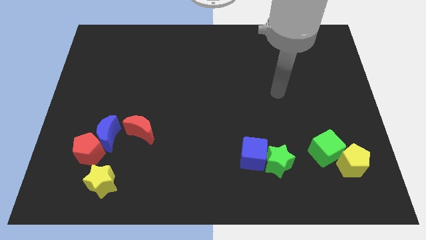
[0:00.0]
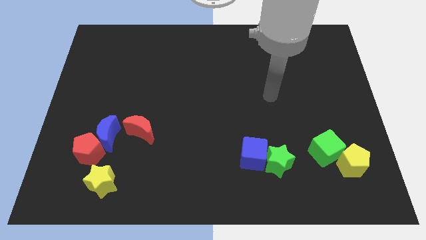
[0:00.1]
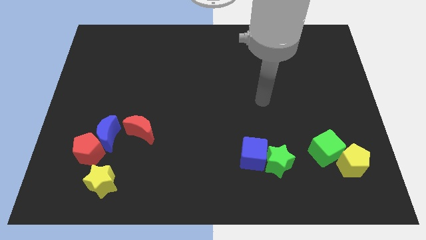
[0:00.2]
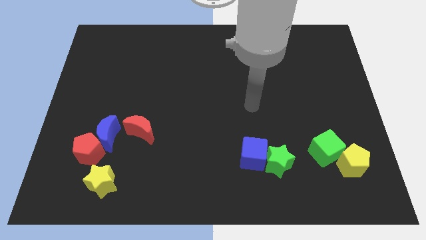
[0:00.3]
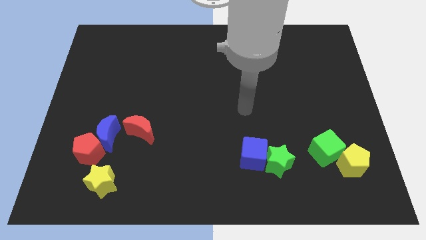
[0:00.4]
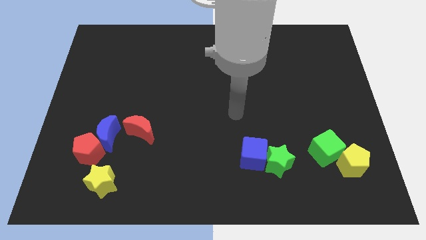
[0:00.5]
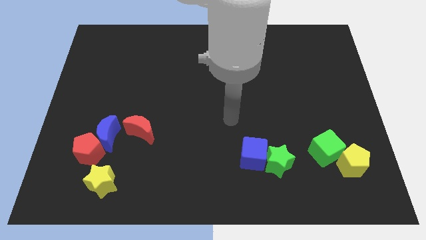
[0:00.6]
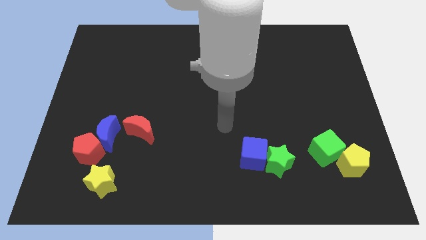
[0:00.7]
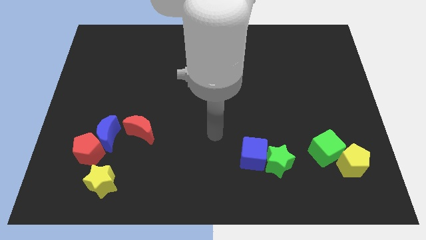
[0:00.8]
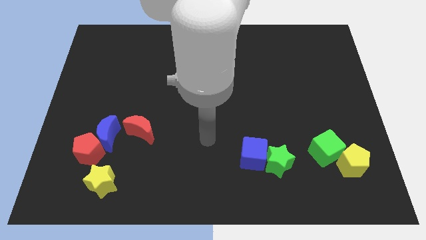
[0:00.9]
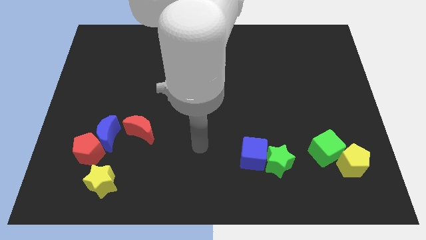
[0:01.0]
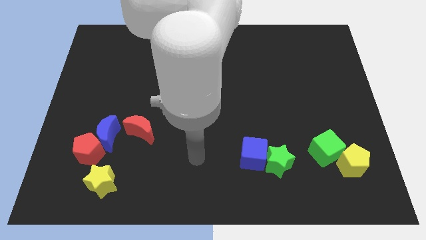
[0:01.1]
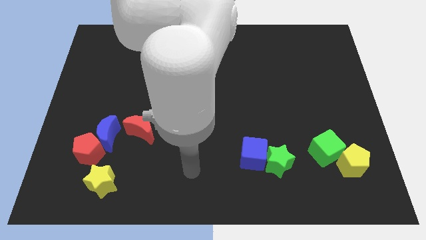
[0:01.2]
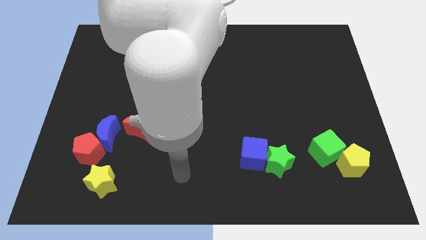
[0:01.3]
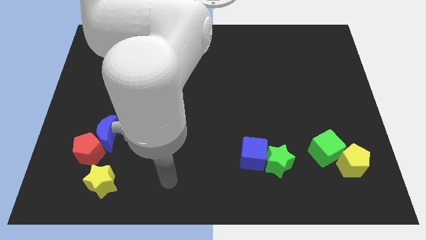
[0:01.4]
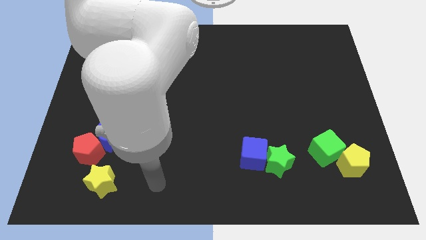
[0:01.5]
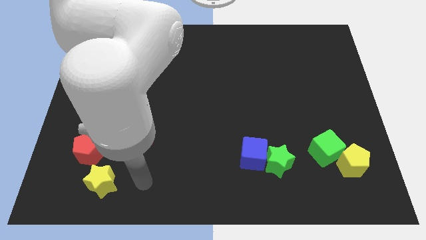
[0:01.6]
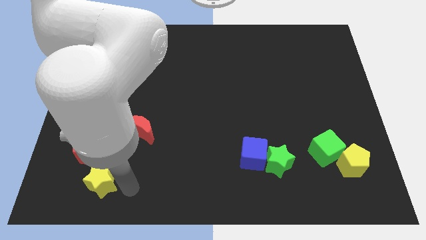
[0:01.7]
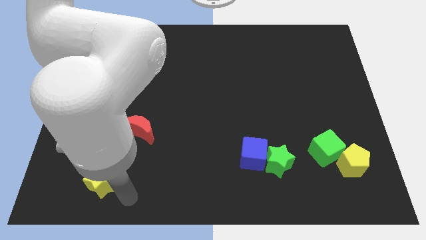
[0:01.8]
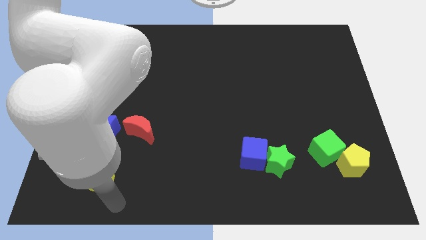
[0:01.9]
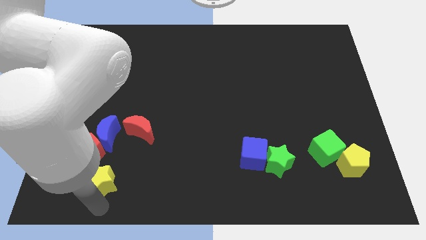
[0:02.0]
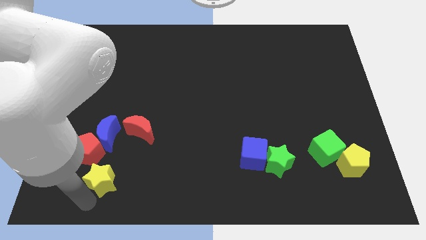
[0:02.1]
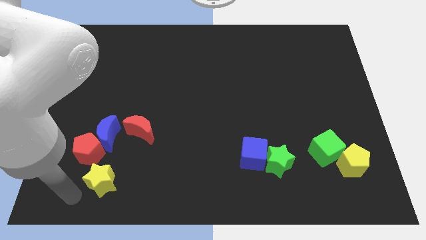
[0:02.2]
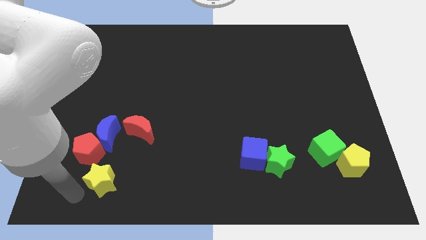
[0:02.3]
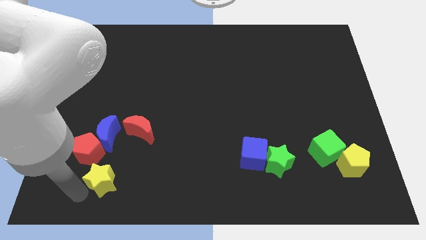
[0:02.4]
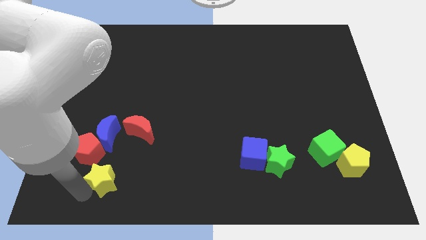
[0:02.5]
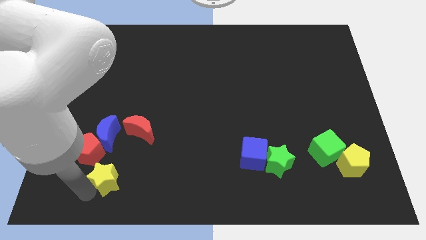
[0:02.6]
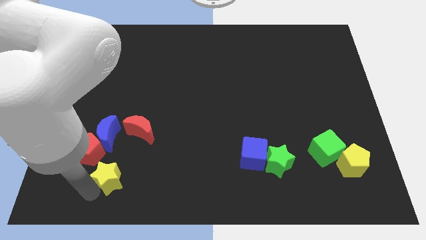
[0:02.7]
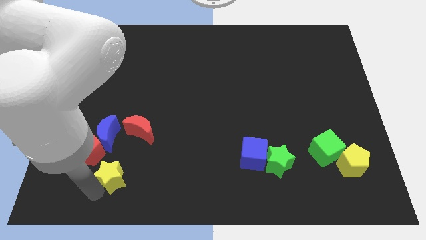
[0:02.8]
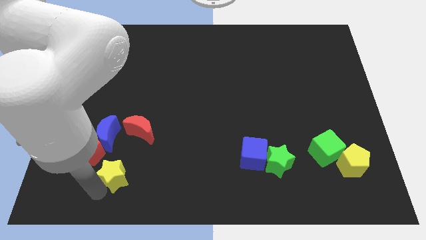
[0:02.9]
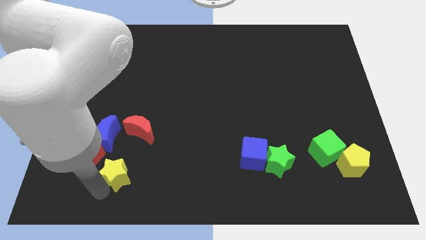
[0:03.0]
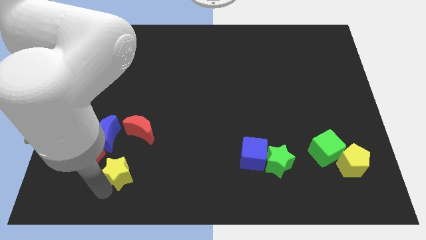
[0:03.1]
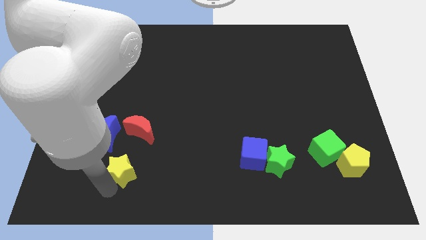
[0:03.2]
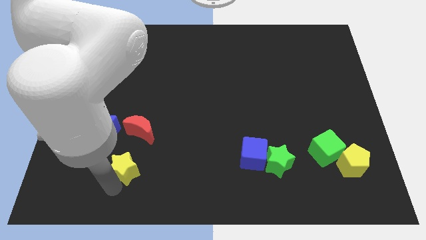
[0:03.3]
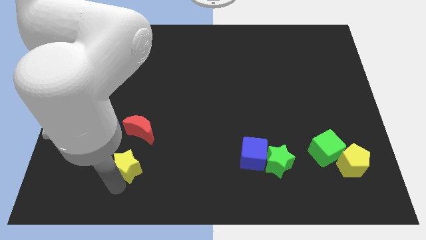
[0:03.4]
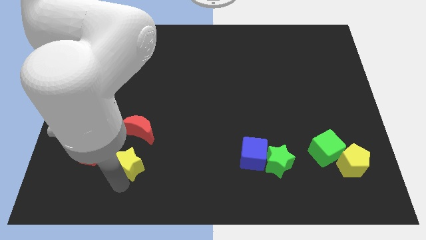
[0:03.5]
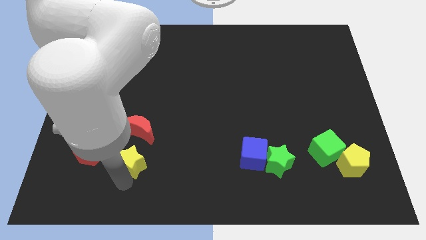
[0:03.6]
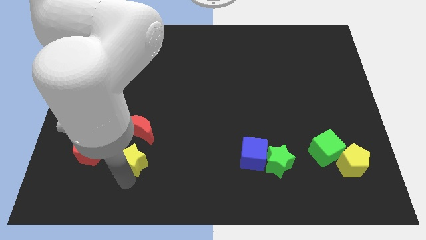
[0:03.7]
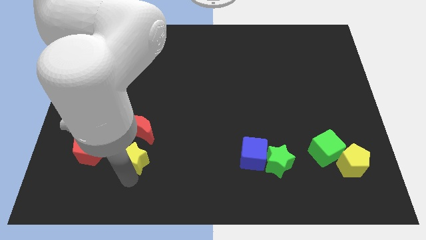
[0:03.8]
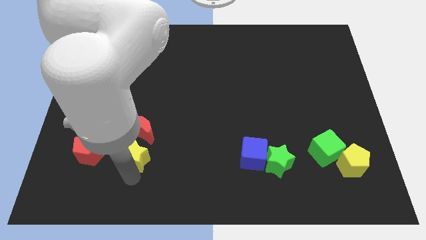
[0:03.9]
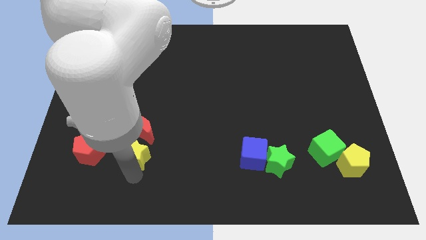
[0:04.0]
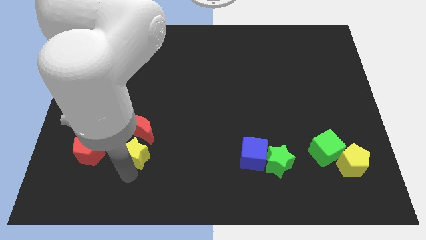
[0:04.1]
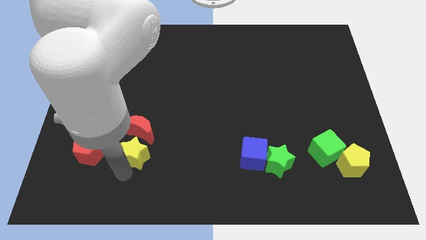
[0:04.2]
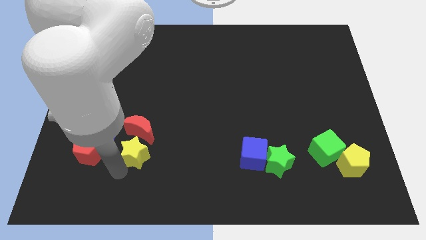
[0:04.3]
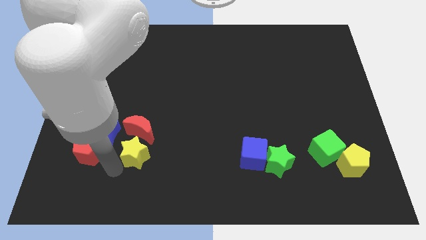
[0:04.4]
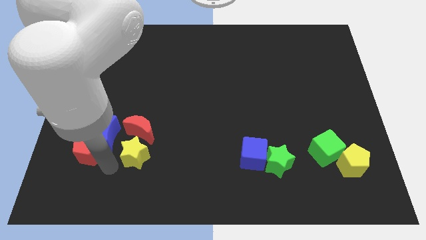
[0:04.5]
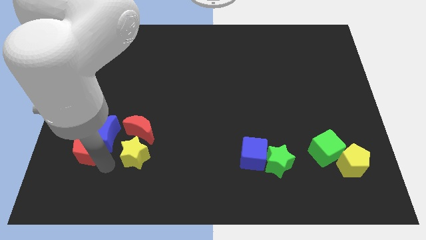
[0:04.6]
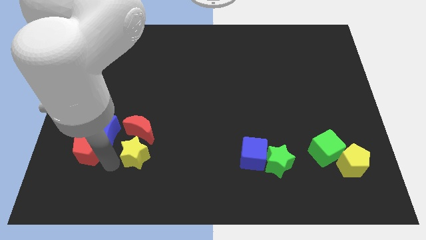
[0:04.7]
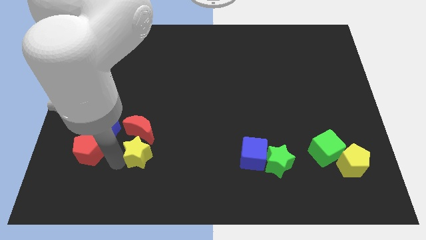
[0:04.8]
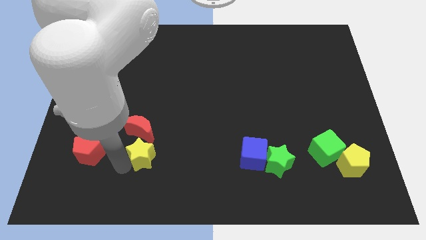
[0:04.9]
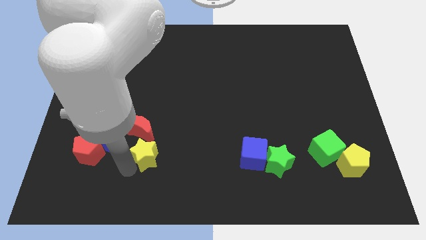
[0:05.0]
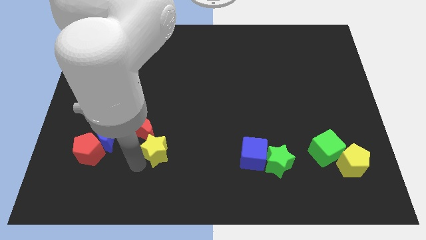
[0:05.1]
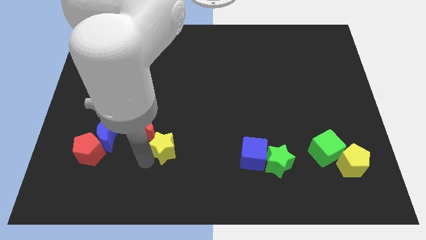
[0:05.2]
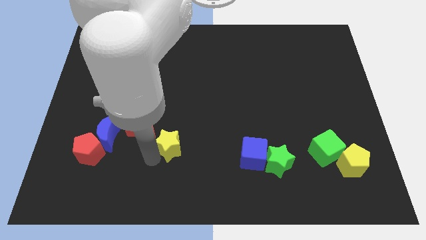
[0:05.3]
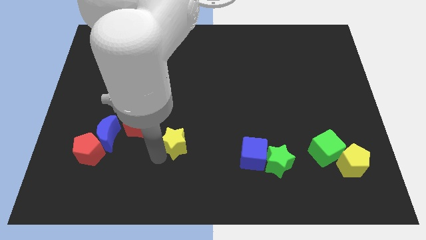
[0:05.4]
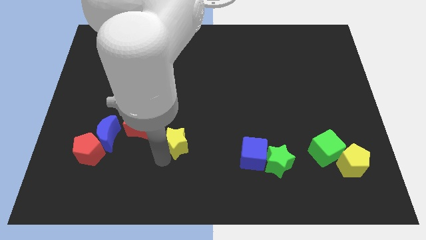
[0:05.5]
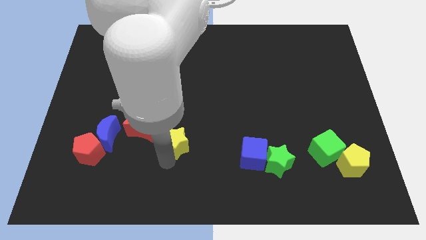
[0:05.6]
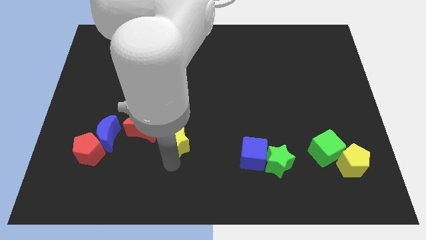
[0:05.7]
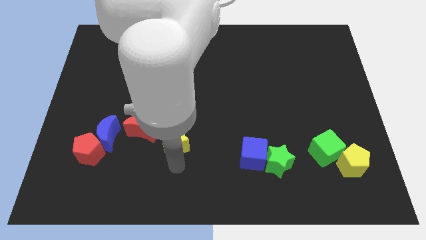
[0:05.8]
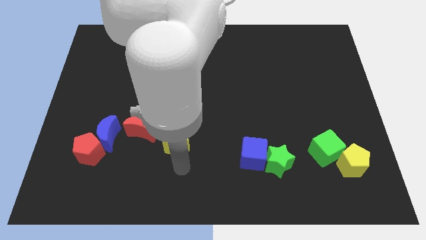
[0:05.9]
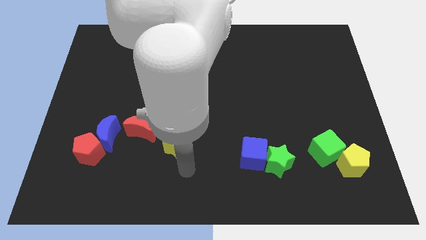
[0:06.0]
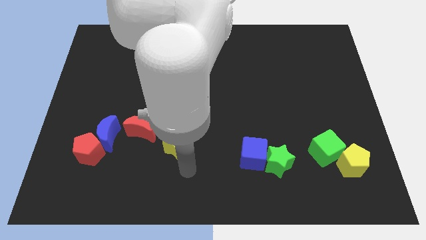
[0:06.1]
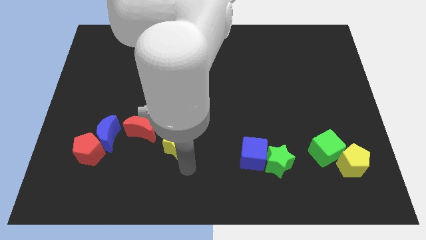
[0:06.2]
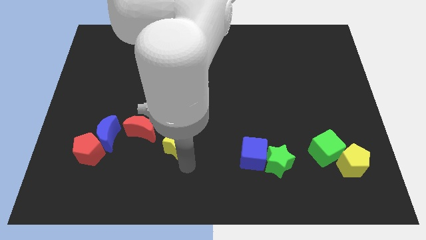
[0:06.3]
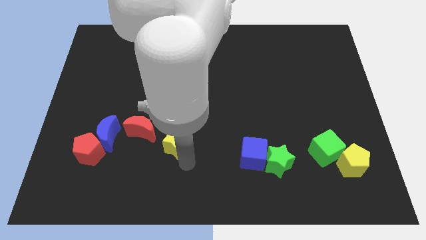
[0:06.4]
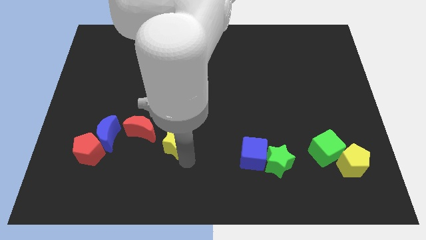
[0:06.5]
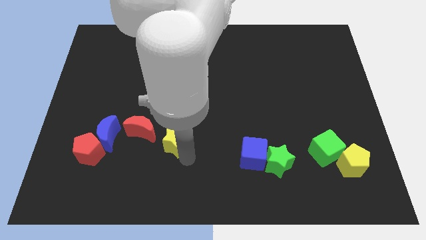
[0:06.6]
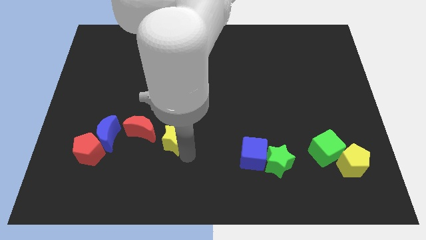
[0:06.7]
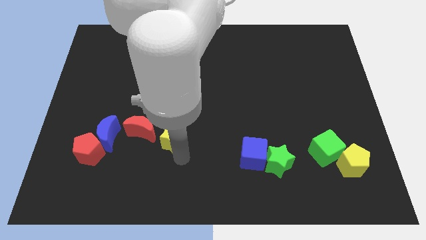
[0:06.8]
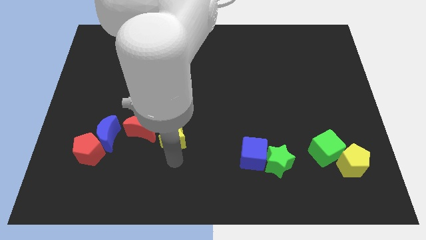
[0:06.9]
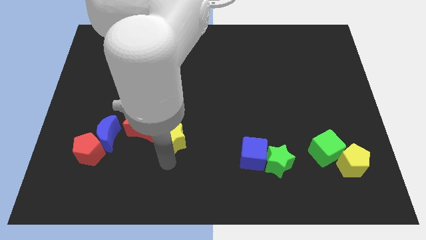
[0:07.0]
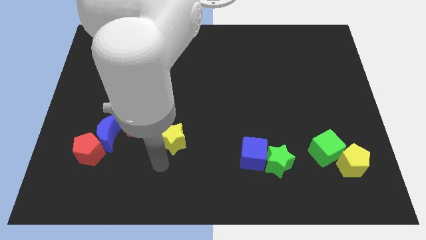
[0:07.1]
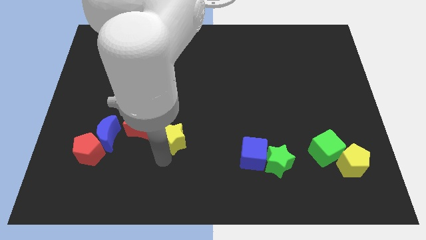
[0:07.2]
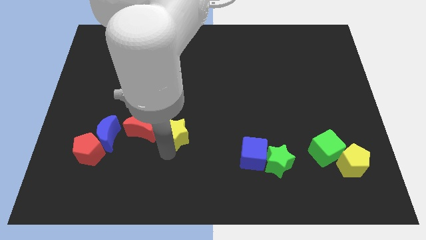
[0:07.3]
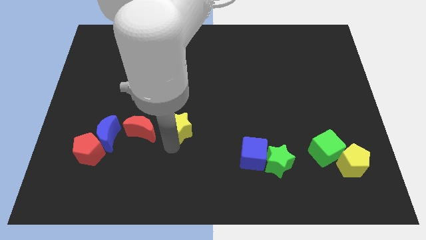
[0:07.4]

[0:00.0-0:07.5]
move the yellow star diagonally up and to the right

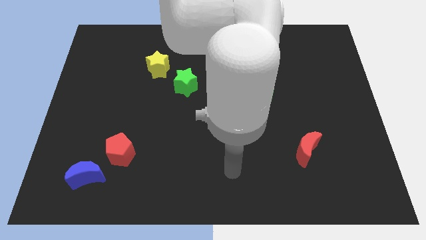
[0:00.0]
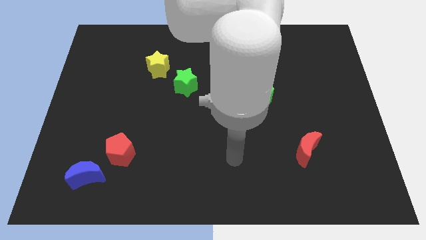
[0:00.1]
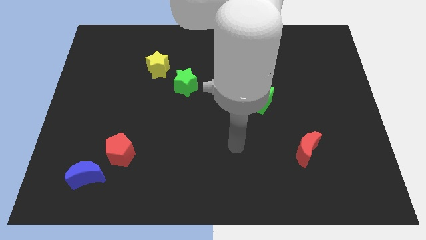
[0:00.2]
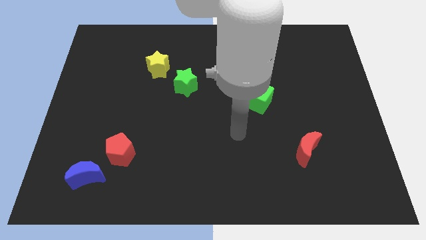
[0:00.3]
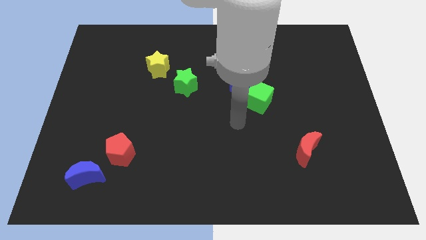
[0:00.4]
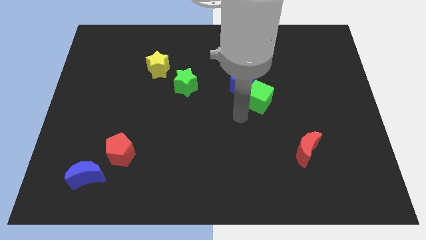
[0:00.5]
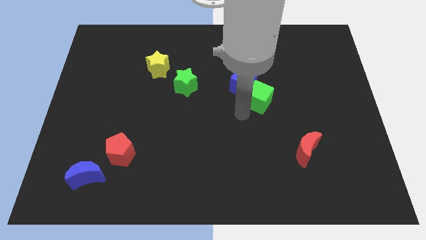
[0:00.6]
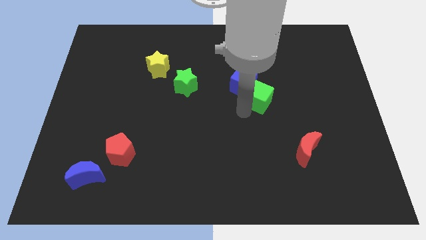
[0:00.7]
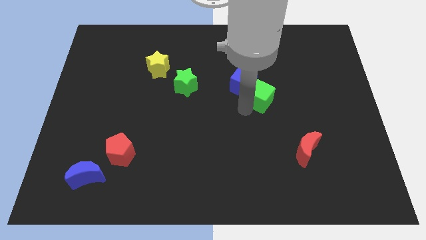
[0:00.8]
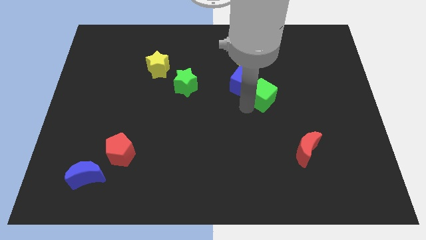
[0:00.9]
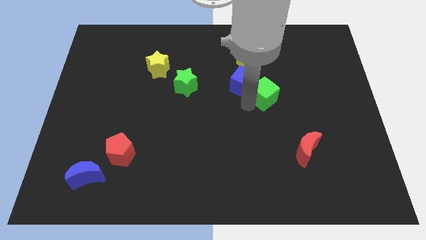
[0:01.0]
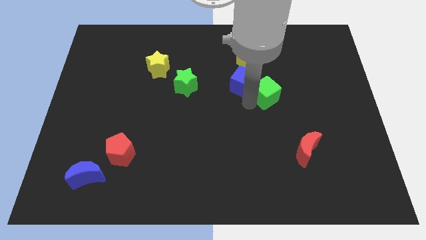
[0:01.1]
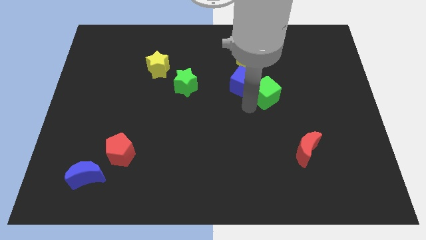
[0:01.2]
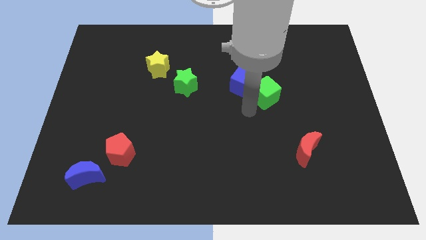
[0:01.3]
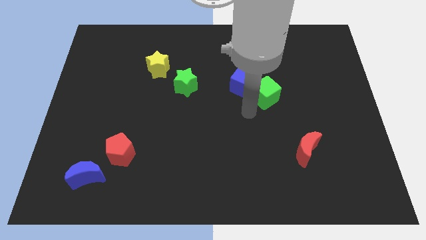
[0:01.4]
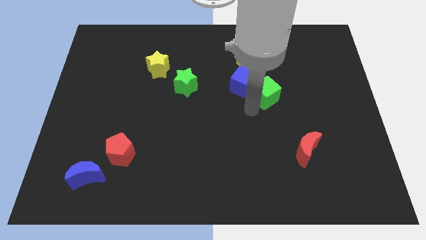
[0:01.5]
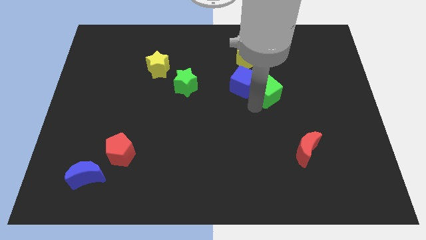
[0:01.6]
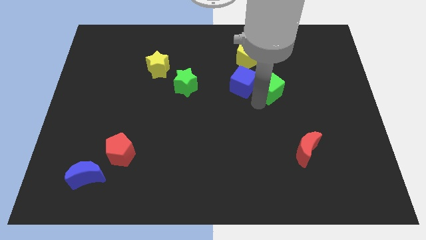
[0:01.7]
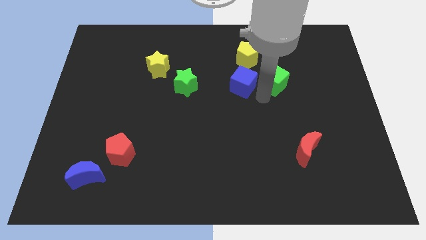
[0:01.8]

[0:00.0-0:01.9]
move the green cube up and right slightly
